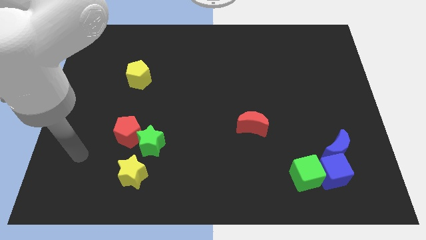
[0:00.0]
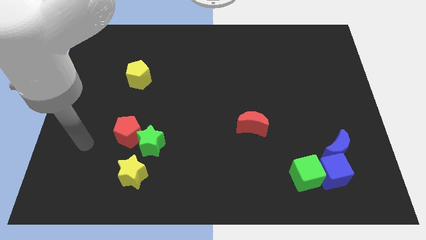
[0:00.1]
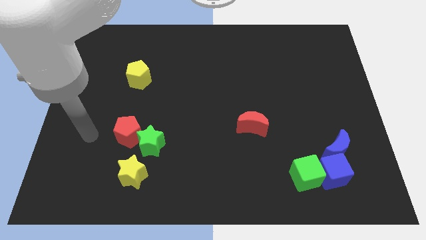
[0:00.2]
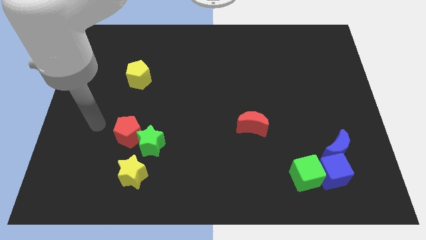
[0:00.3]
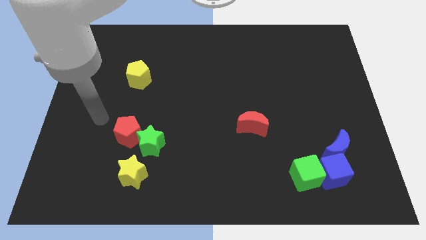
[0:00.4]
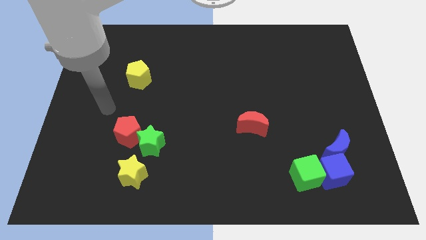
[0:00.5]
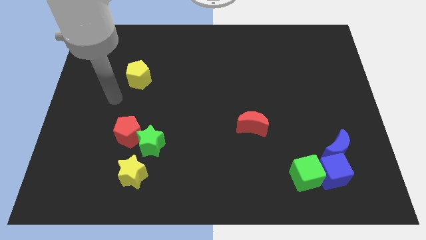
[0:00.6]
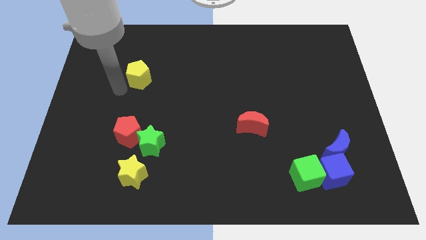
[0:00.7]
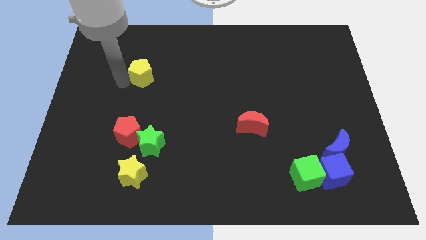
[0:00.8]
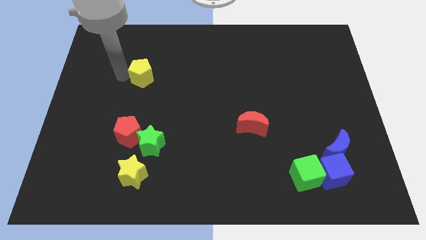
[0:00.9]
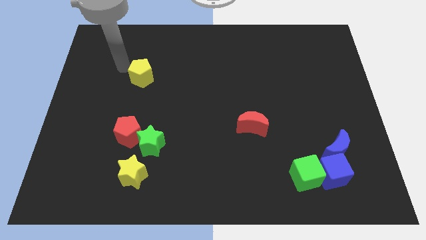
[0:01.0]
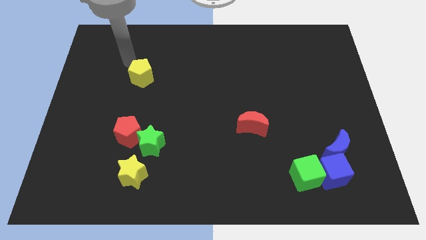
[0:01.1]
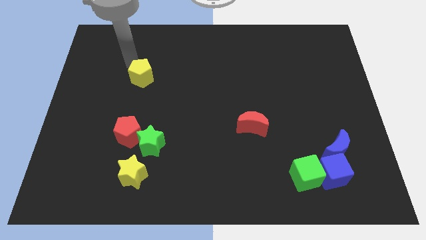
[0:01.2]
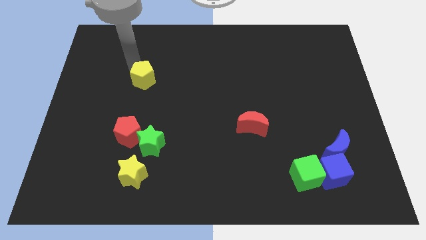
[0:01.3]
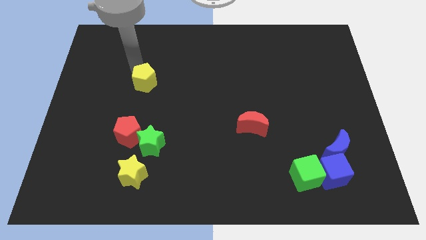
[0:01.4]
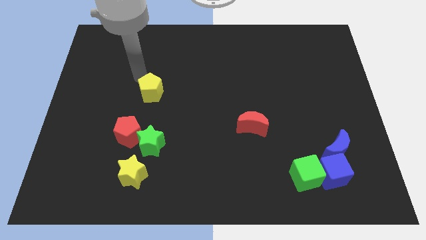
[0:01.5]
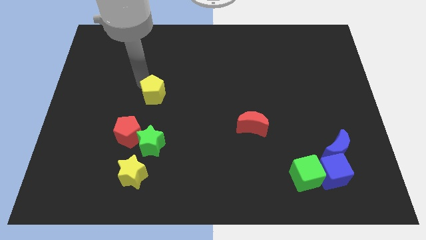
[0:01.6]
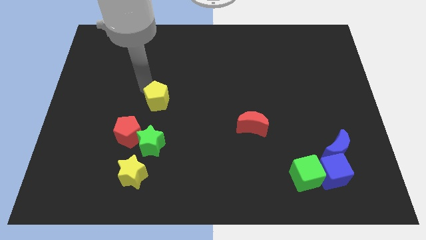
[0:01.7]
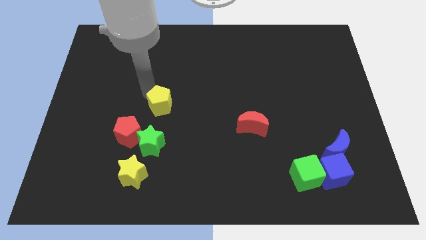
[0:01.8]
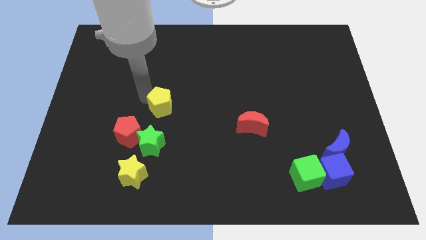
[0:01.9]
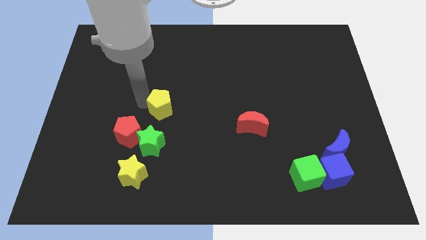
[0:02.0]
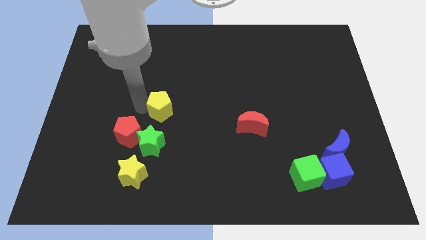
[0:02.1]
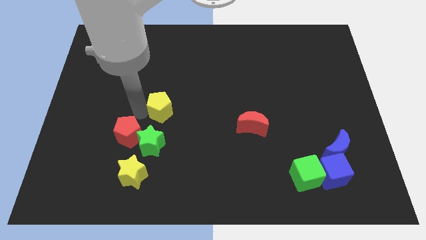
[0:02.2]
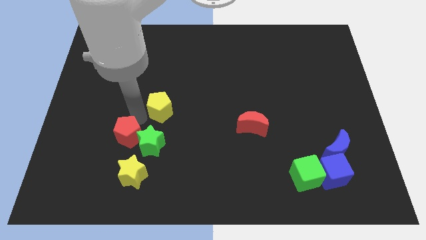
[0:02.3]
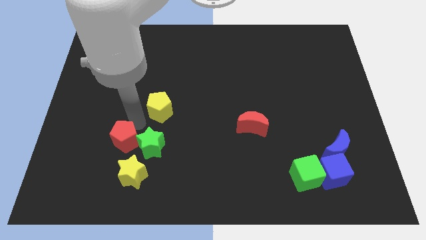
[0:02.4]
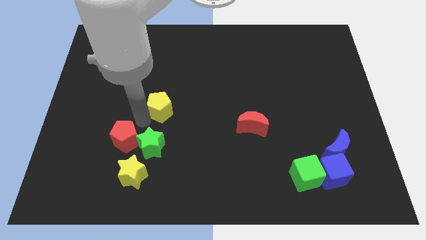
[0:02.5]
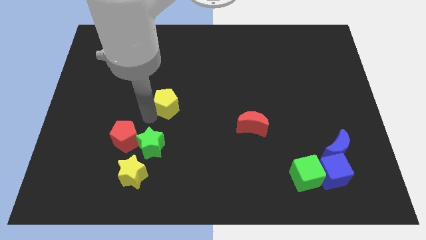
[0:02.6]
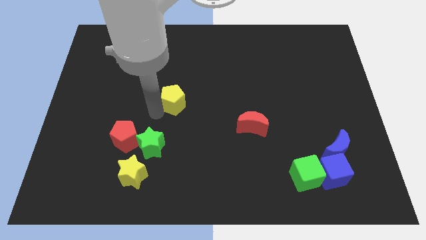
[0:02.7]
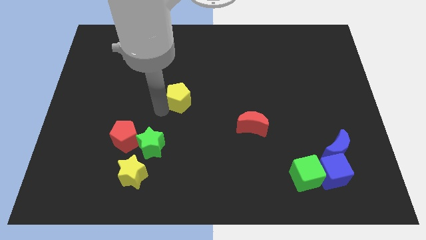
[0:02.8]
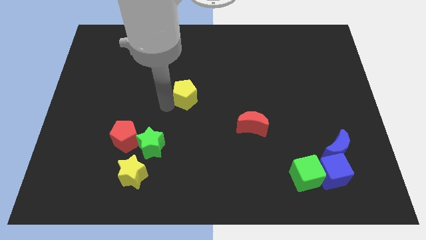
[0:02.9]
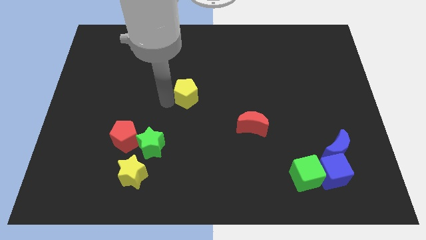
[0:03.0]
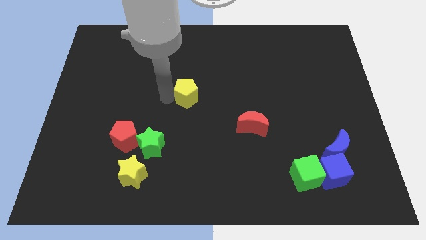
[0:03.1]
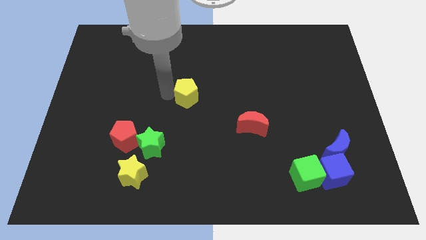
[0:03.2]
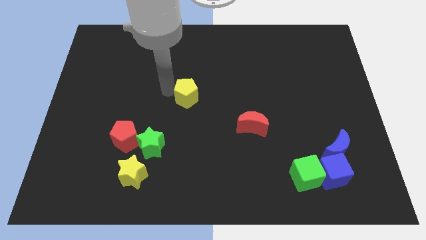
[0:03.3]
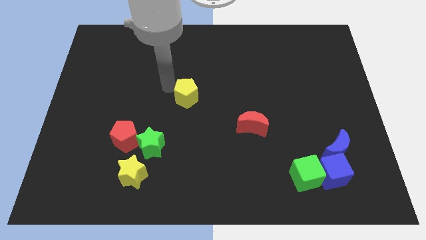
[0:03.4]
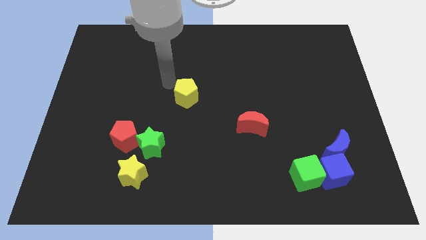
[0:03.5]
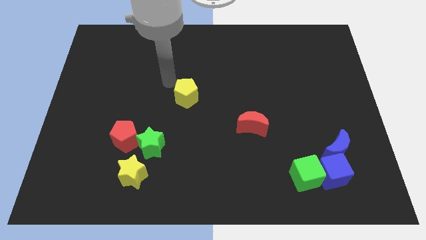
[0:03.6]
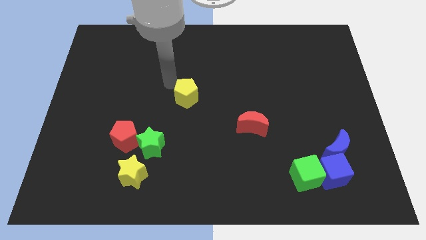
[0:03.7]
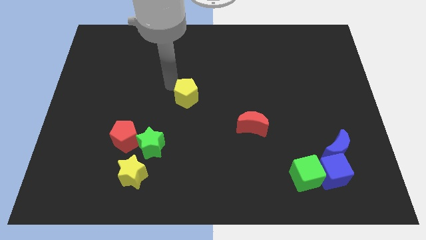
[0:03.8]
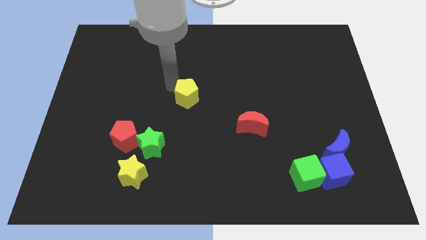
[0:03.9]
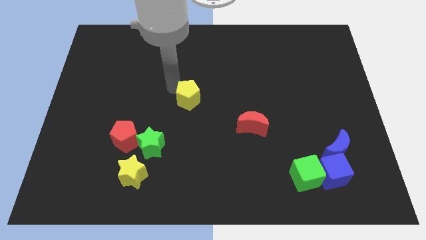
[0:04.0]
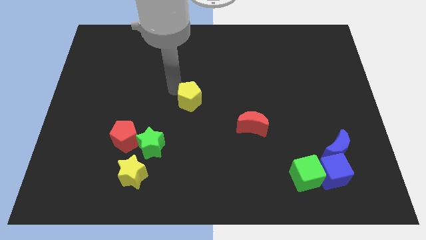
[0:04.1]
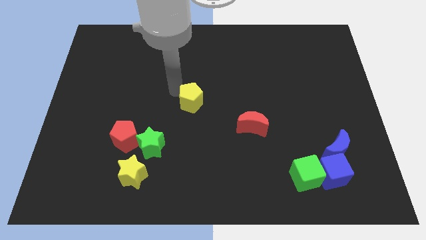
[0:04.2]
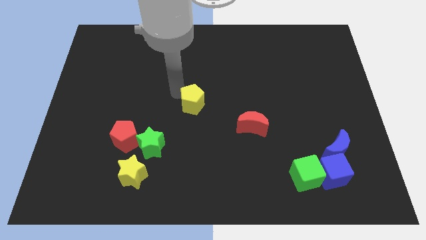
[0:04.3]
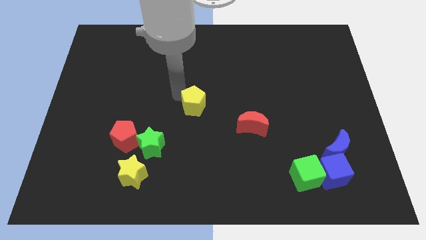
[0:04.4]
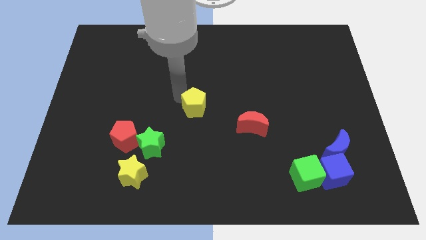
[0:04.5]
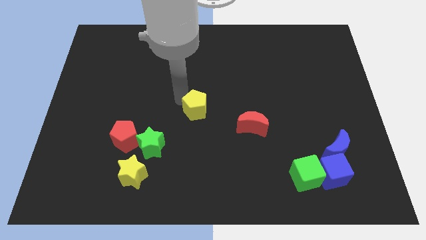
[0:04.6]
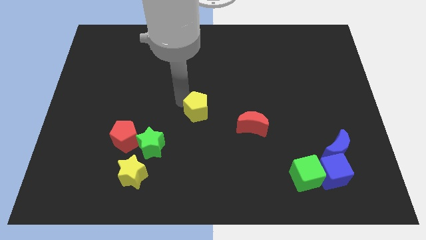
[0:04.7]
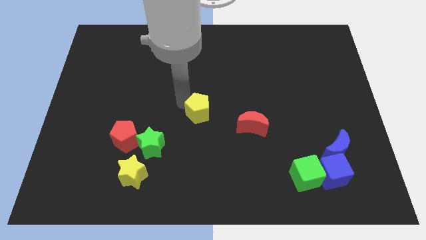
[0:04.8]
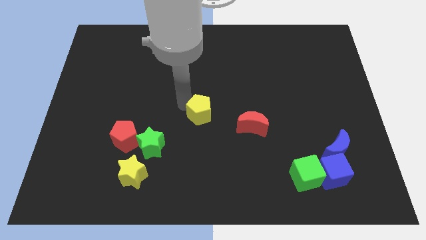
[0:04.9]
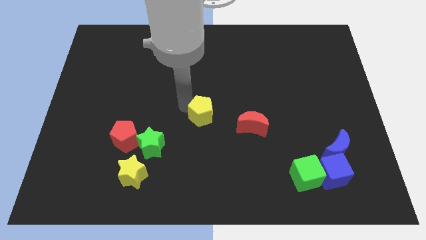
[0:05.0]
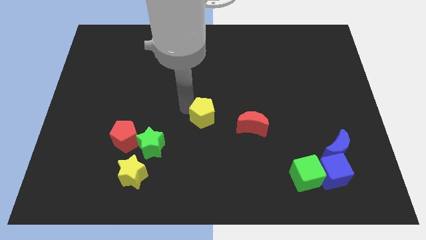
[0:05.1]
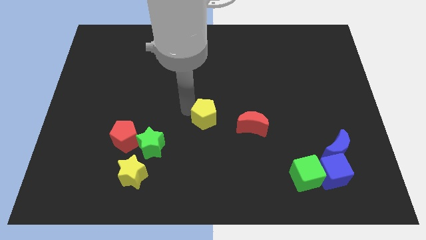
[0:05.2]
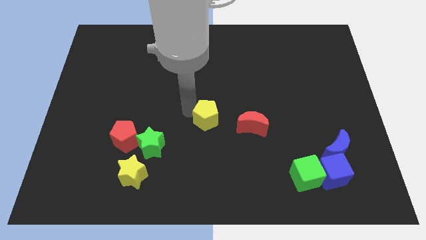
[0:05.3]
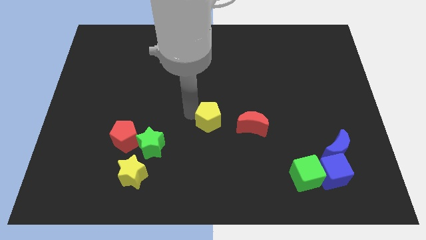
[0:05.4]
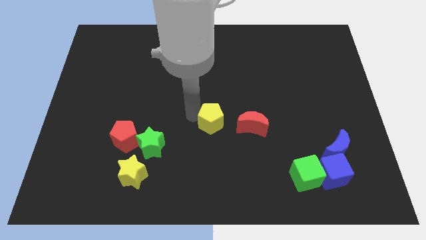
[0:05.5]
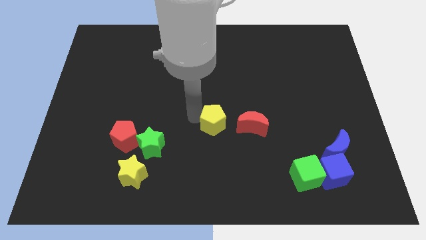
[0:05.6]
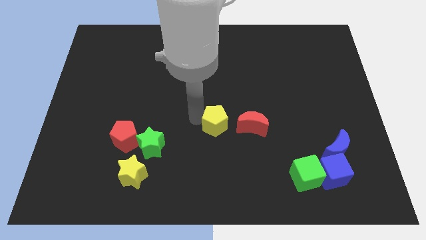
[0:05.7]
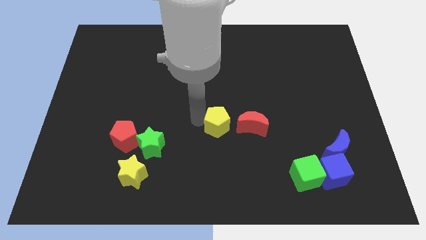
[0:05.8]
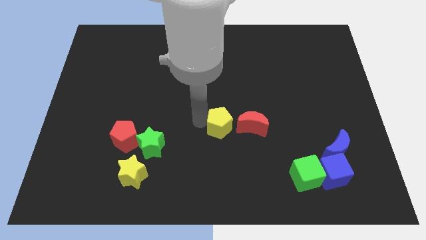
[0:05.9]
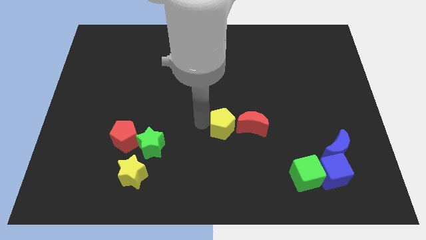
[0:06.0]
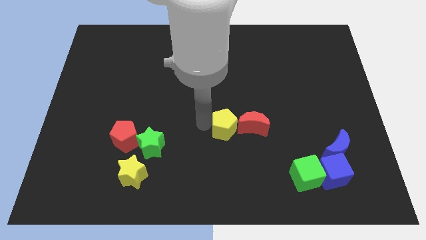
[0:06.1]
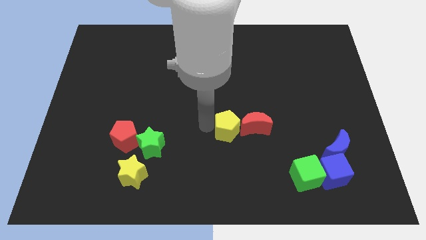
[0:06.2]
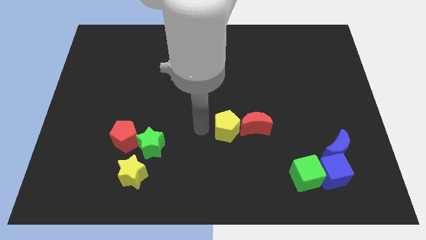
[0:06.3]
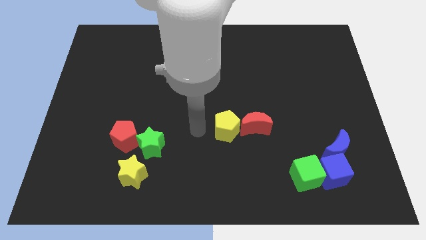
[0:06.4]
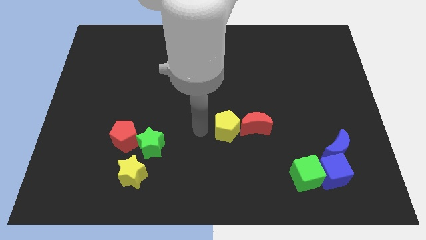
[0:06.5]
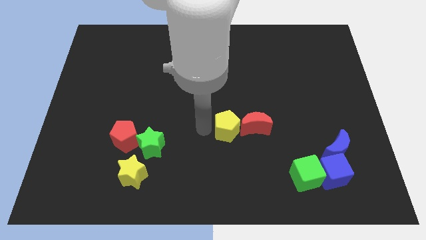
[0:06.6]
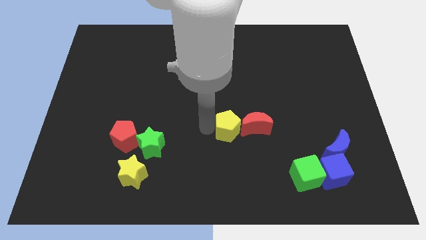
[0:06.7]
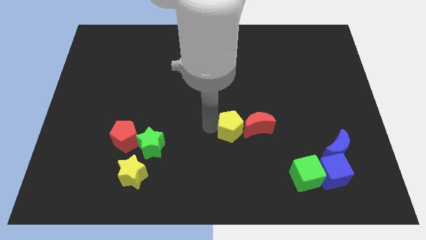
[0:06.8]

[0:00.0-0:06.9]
push the yellow pentagon towards the red moon
